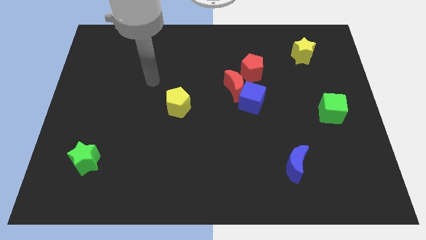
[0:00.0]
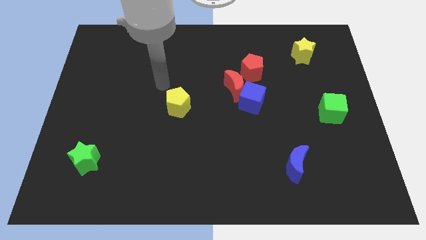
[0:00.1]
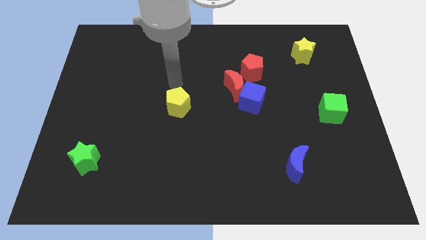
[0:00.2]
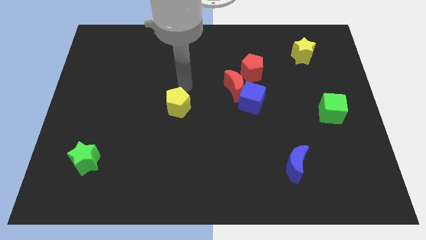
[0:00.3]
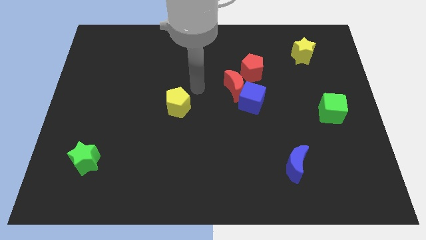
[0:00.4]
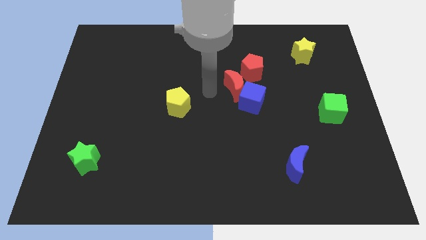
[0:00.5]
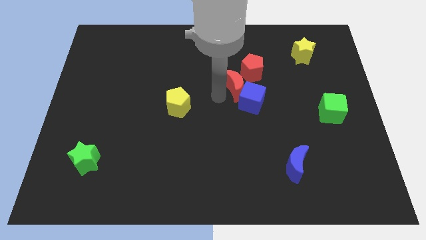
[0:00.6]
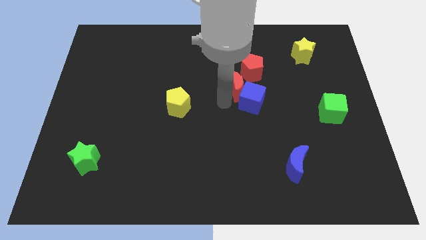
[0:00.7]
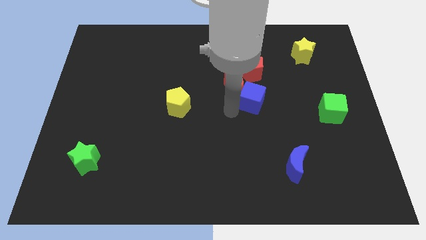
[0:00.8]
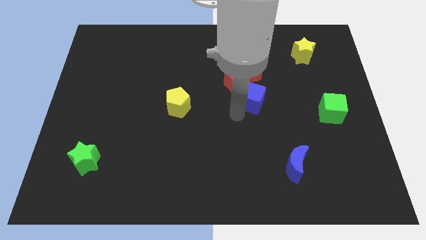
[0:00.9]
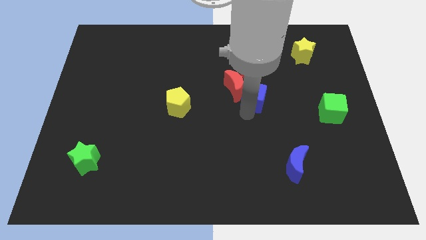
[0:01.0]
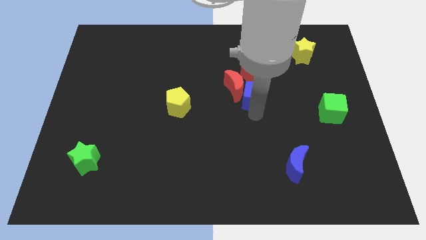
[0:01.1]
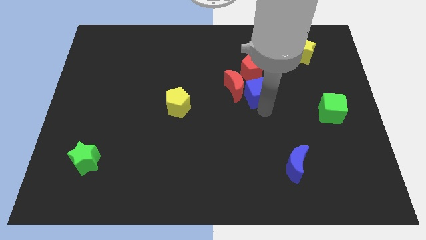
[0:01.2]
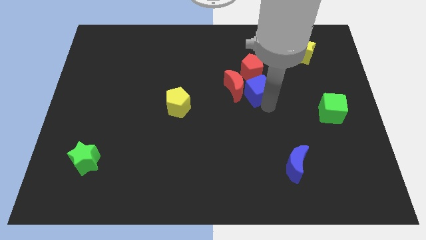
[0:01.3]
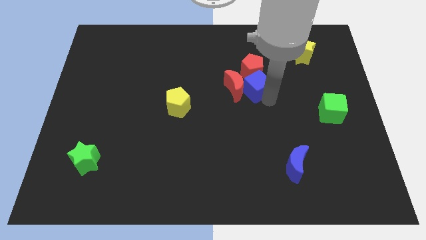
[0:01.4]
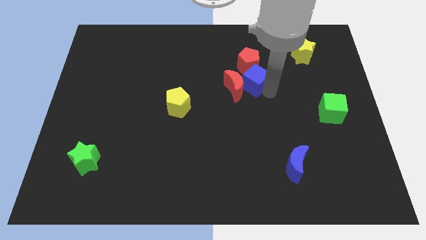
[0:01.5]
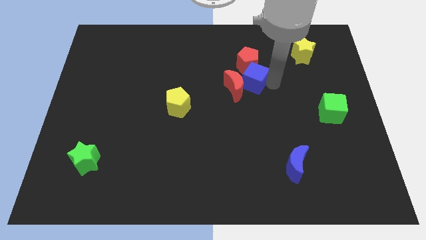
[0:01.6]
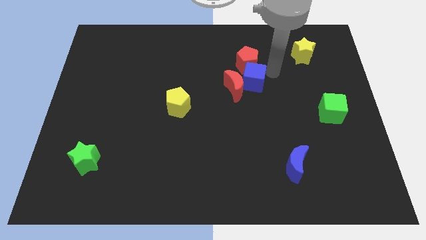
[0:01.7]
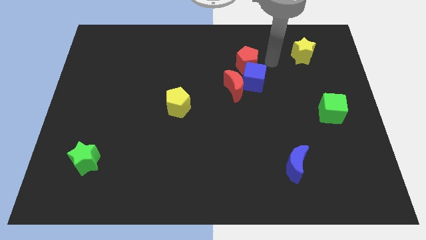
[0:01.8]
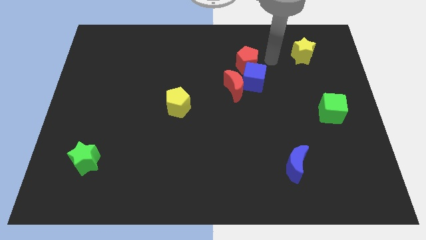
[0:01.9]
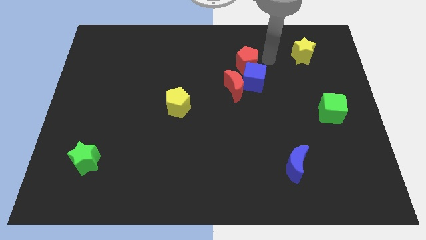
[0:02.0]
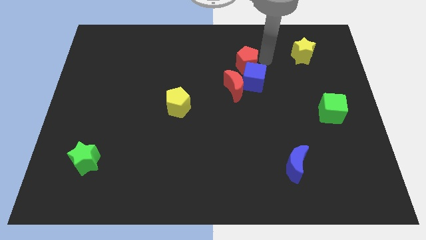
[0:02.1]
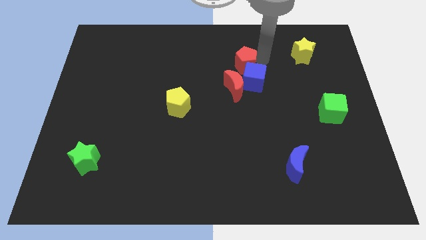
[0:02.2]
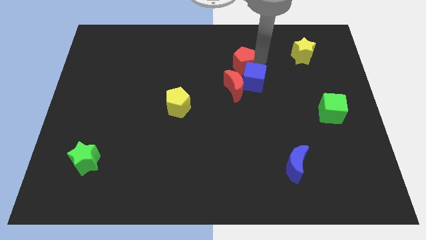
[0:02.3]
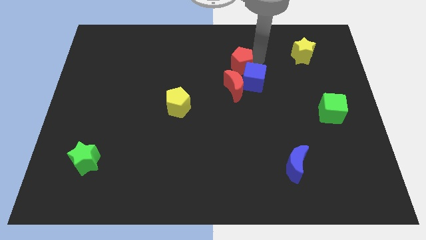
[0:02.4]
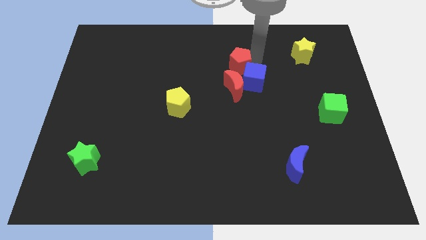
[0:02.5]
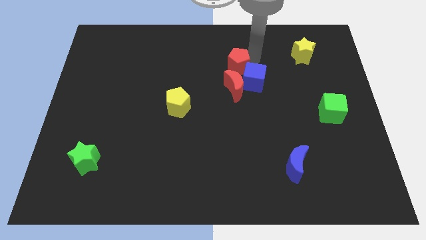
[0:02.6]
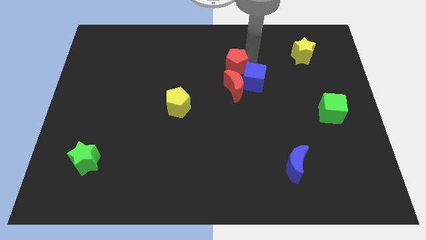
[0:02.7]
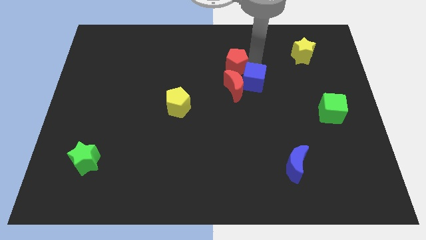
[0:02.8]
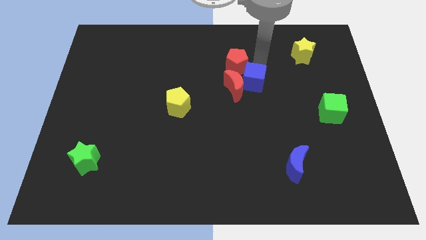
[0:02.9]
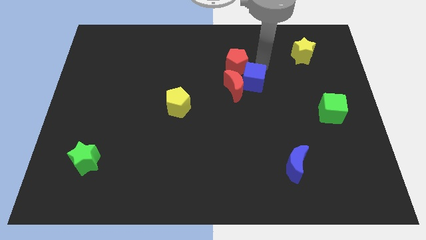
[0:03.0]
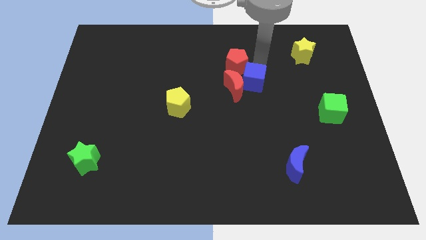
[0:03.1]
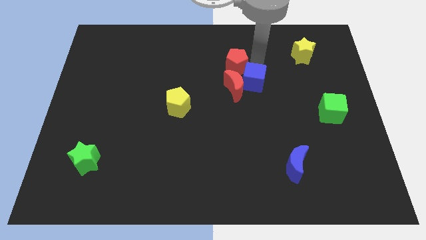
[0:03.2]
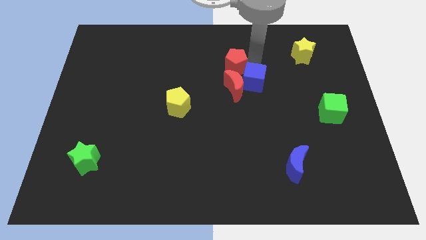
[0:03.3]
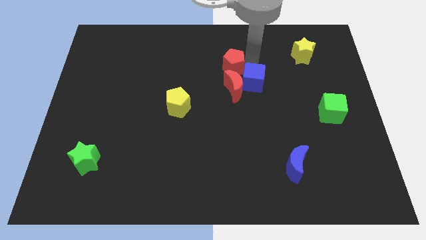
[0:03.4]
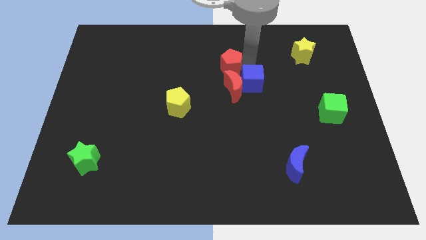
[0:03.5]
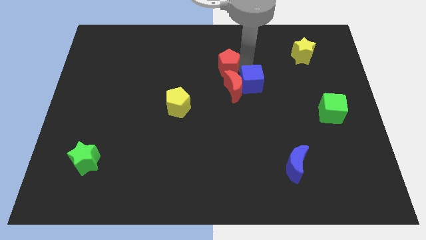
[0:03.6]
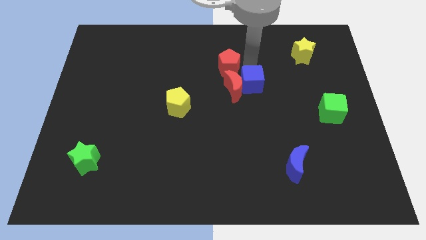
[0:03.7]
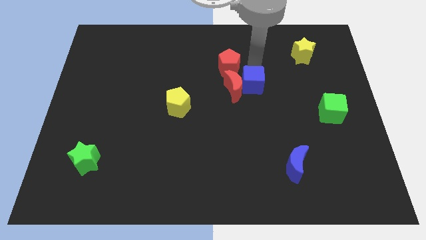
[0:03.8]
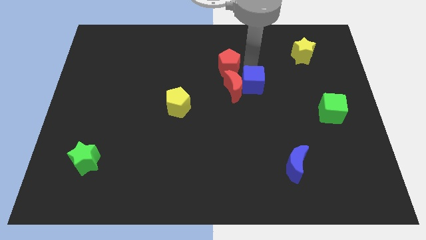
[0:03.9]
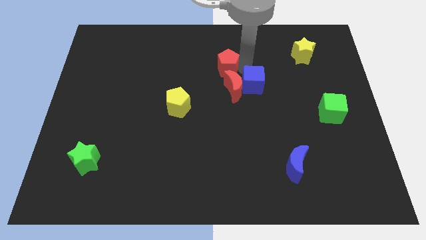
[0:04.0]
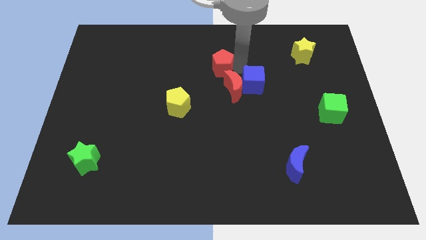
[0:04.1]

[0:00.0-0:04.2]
push the red pentagon slightly left

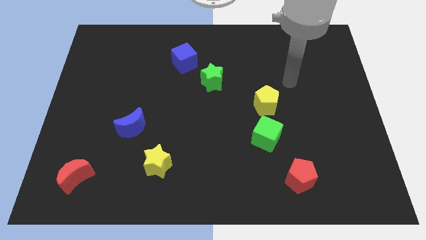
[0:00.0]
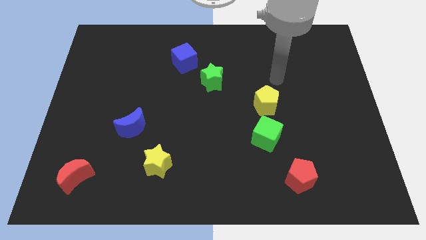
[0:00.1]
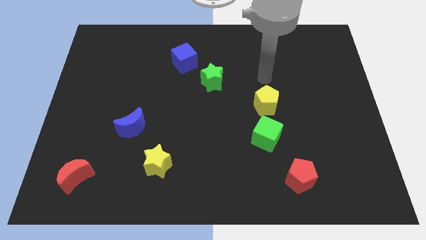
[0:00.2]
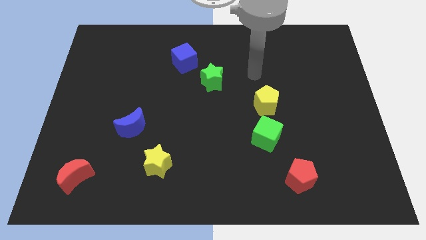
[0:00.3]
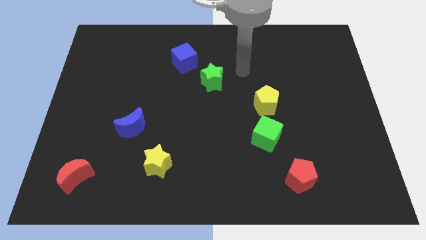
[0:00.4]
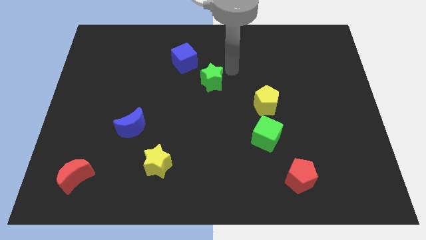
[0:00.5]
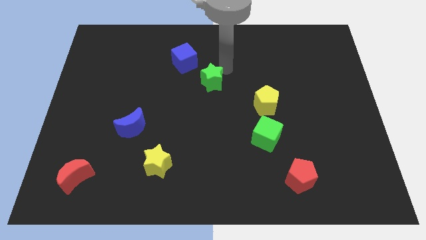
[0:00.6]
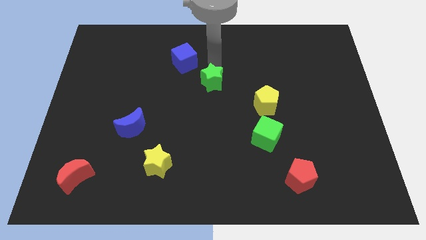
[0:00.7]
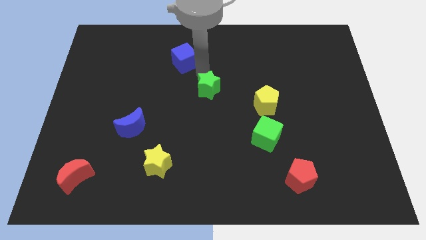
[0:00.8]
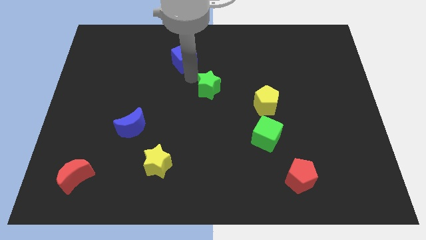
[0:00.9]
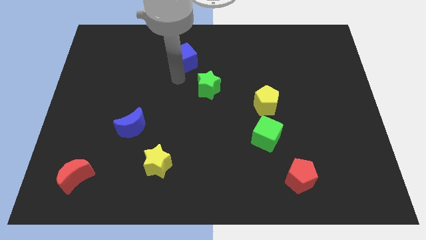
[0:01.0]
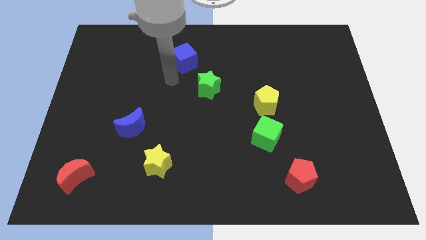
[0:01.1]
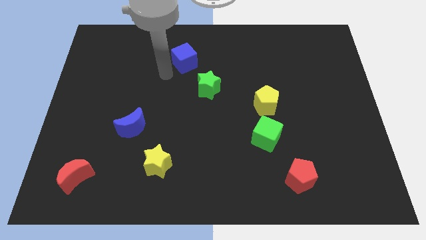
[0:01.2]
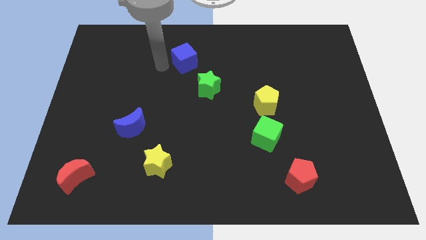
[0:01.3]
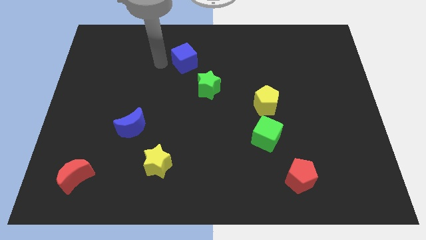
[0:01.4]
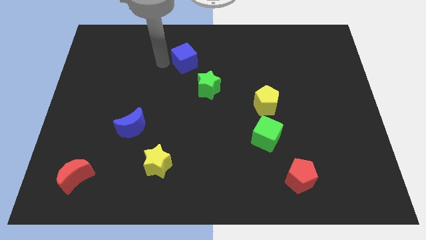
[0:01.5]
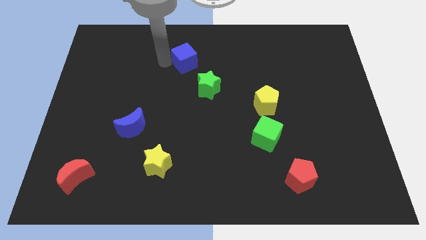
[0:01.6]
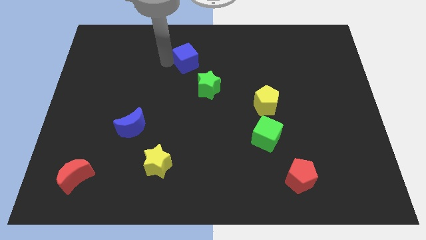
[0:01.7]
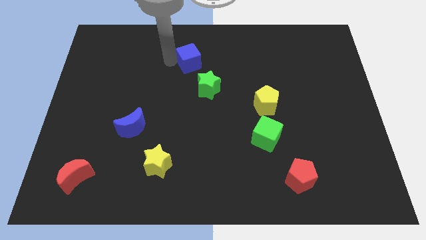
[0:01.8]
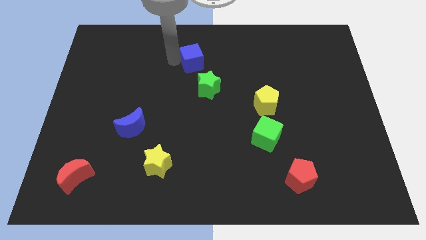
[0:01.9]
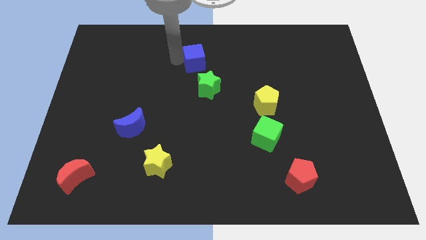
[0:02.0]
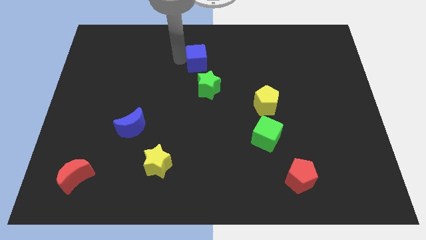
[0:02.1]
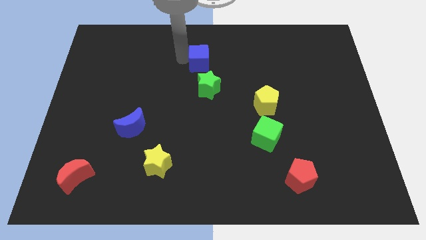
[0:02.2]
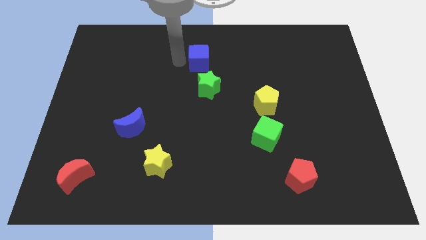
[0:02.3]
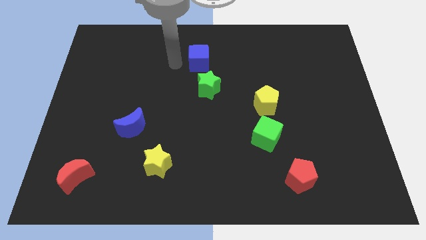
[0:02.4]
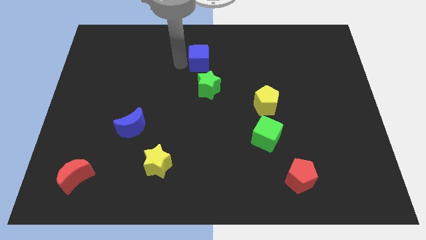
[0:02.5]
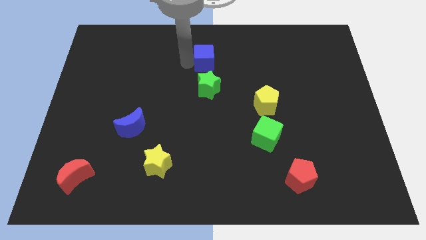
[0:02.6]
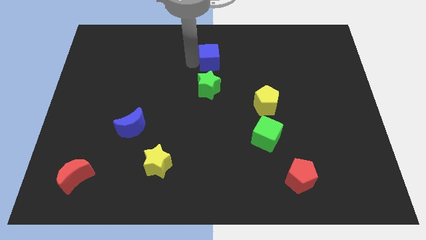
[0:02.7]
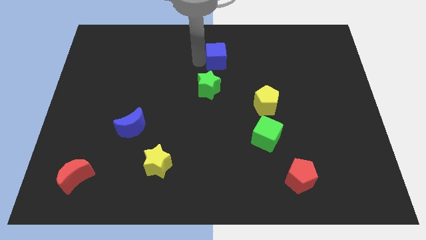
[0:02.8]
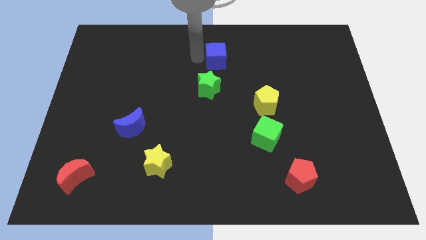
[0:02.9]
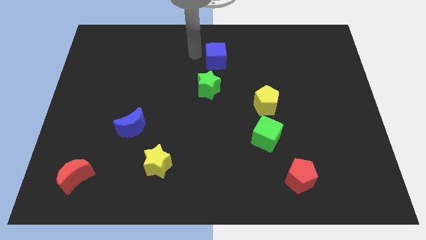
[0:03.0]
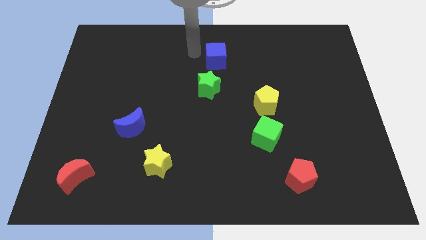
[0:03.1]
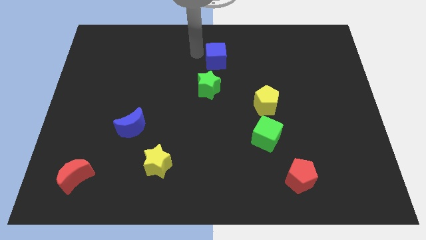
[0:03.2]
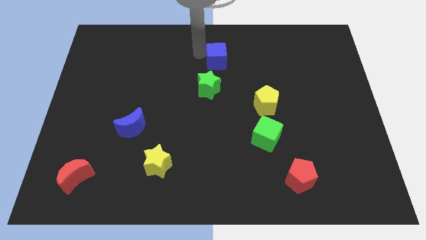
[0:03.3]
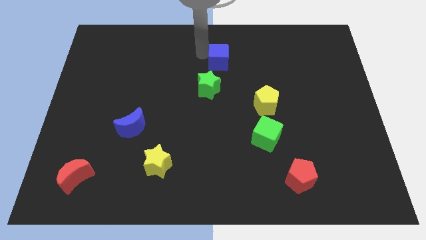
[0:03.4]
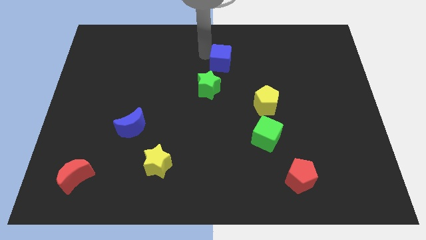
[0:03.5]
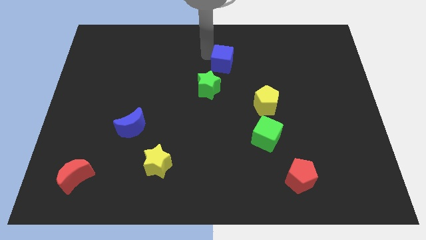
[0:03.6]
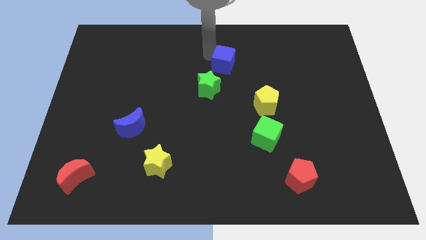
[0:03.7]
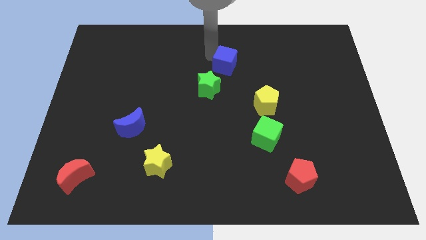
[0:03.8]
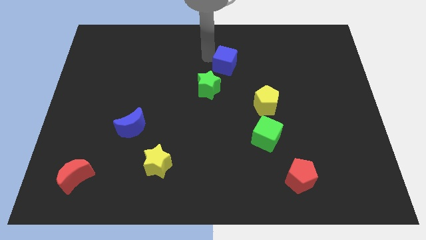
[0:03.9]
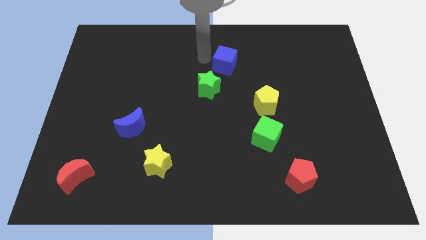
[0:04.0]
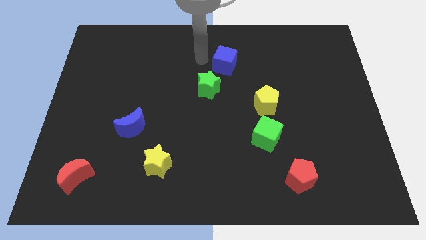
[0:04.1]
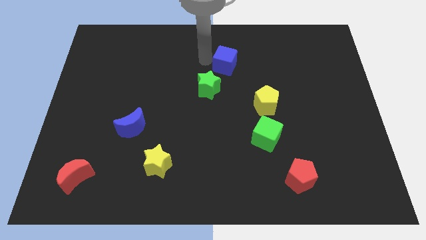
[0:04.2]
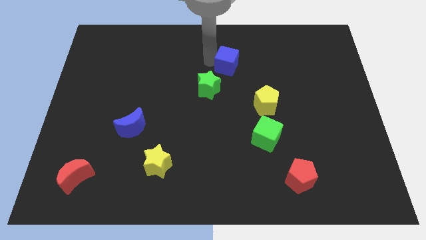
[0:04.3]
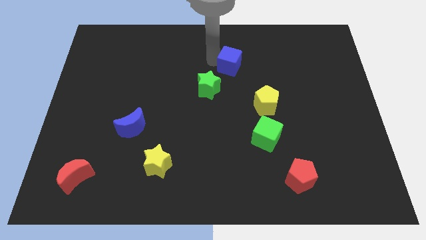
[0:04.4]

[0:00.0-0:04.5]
slide the blue cube down and right a little bit
